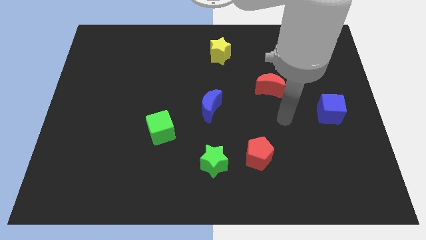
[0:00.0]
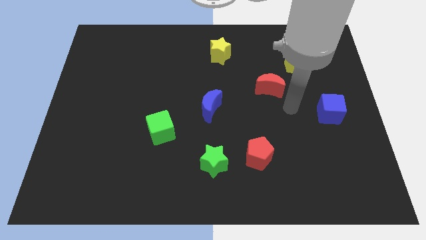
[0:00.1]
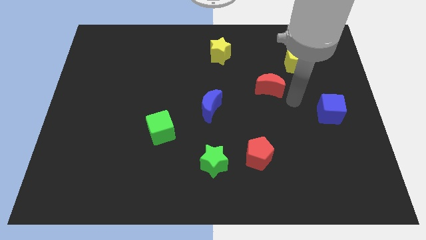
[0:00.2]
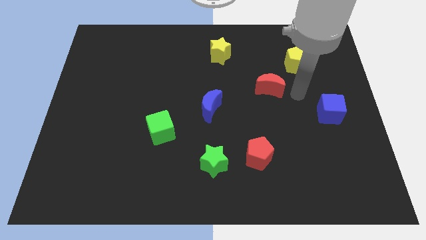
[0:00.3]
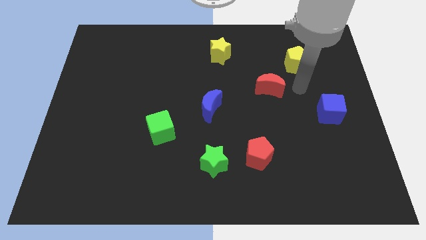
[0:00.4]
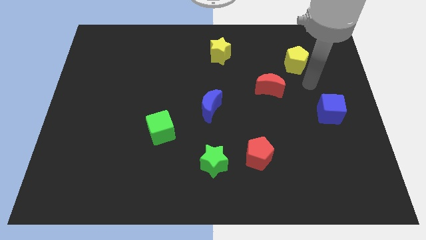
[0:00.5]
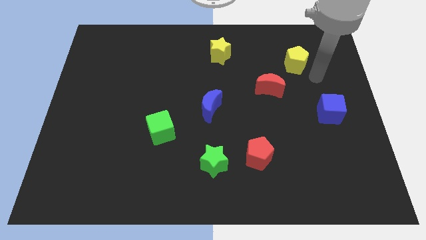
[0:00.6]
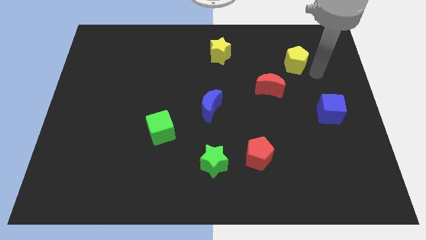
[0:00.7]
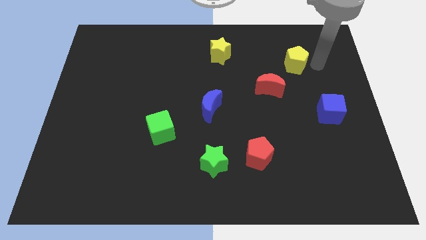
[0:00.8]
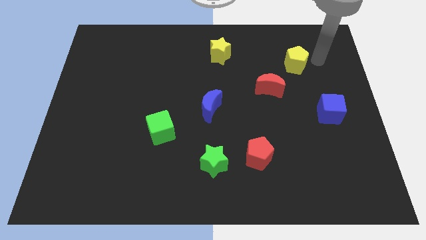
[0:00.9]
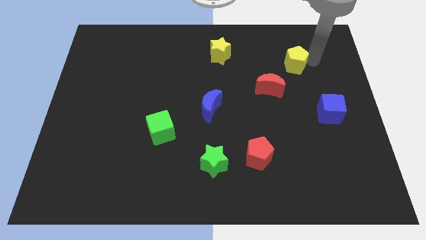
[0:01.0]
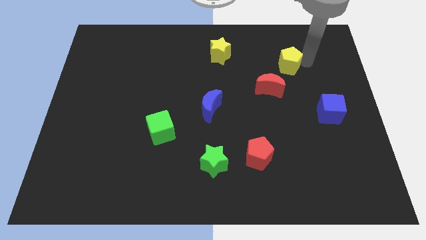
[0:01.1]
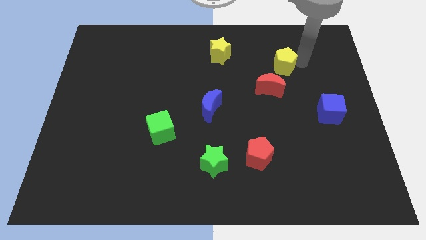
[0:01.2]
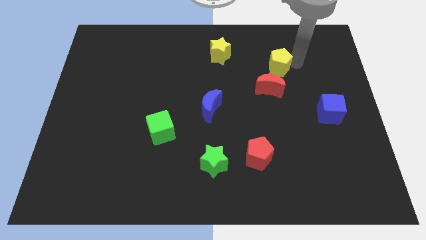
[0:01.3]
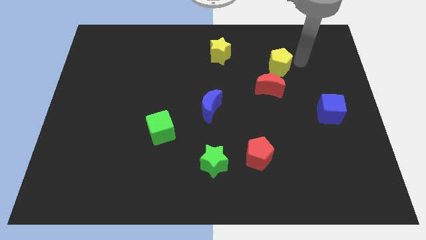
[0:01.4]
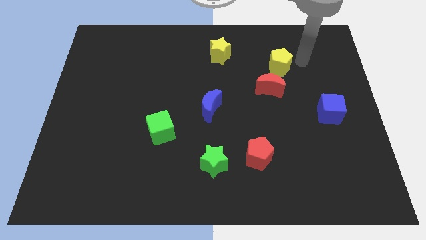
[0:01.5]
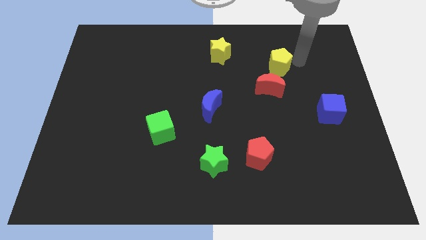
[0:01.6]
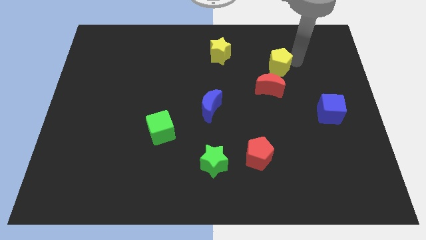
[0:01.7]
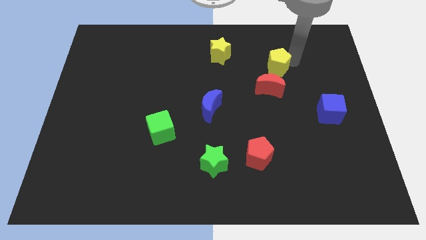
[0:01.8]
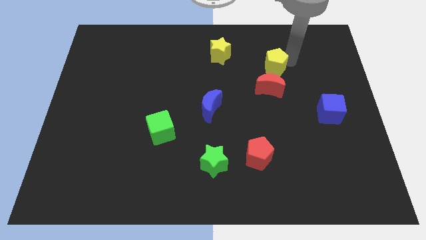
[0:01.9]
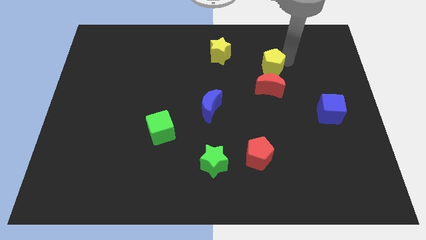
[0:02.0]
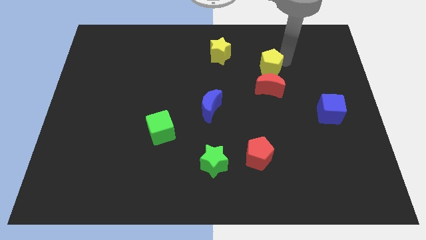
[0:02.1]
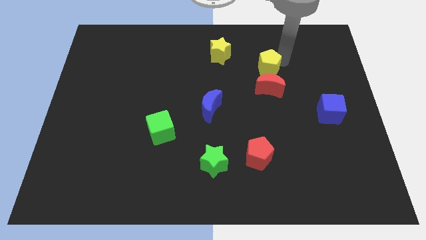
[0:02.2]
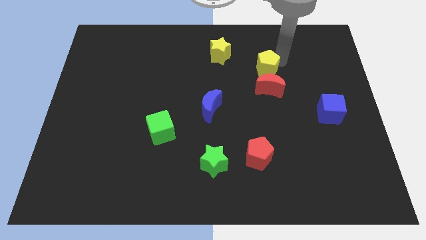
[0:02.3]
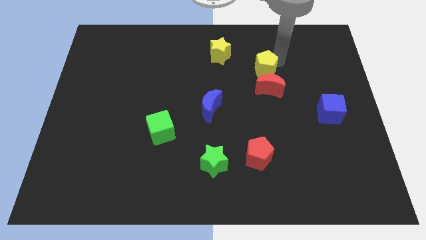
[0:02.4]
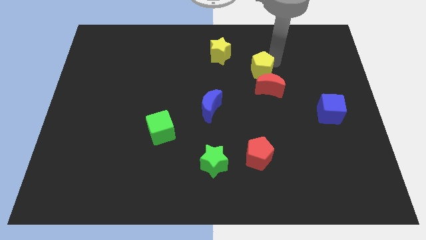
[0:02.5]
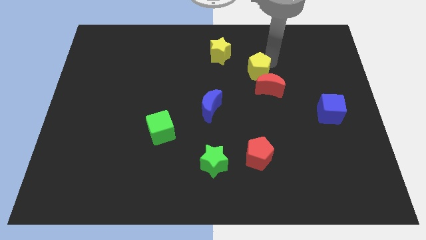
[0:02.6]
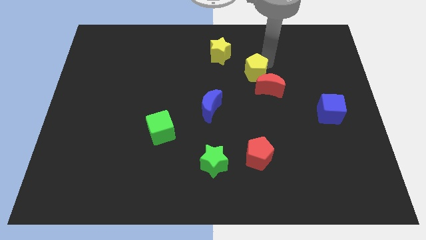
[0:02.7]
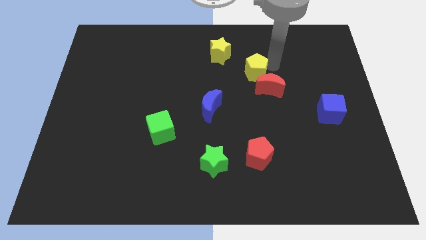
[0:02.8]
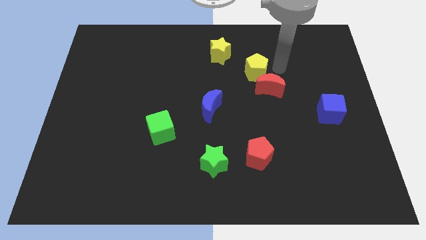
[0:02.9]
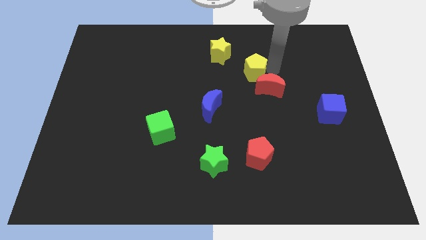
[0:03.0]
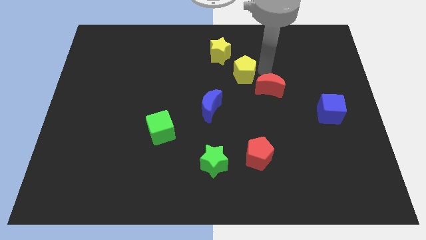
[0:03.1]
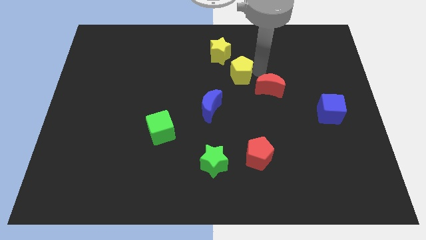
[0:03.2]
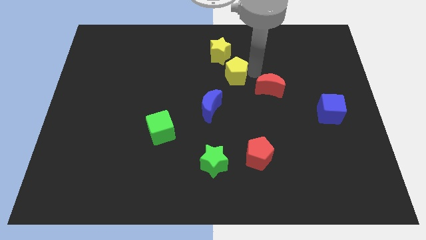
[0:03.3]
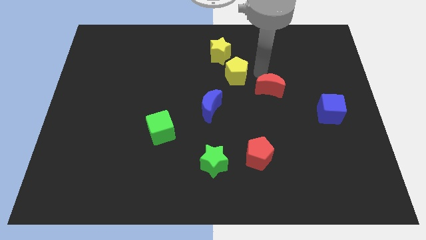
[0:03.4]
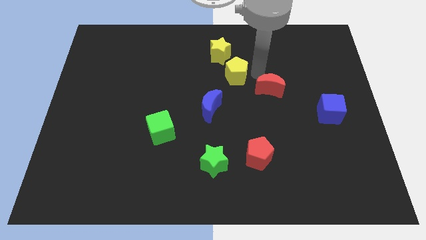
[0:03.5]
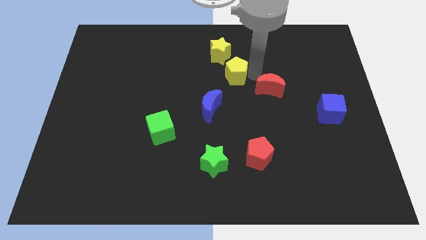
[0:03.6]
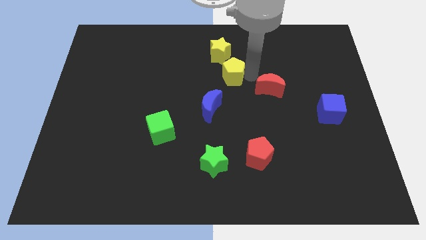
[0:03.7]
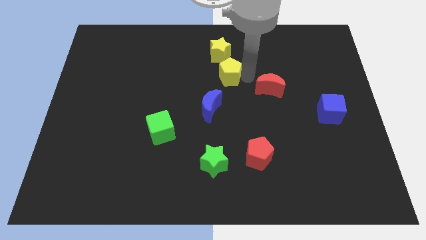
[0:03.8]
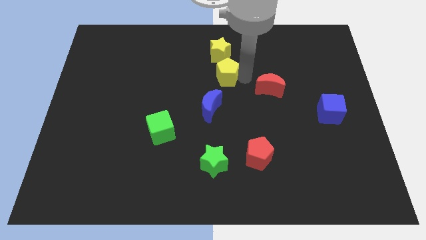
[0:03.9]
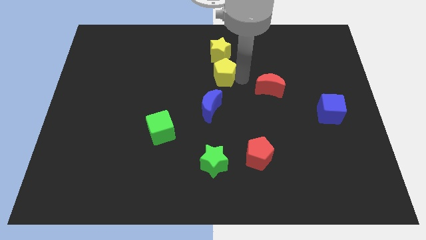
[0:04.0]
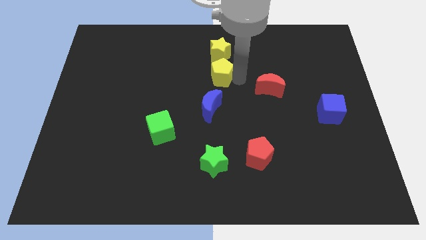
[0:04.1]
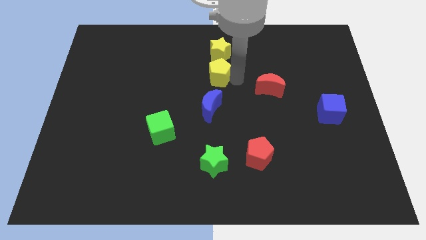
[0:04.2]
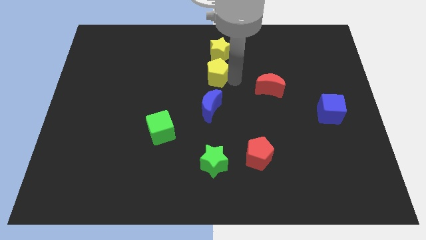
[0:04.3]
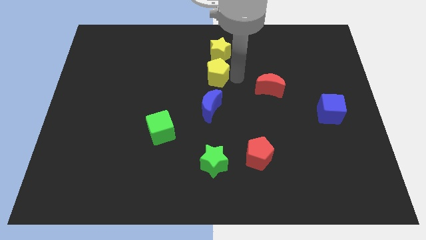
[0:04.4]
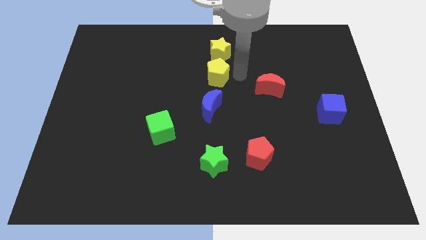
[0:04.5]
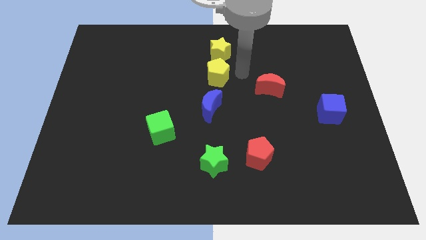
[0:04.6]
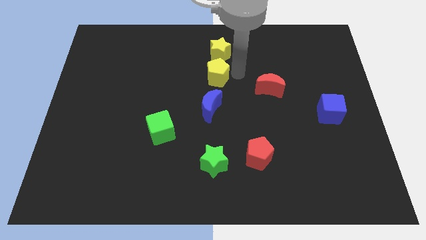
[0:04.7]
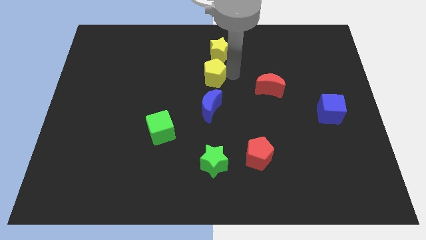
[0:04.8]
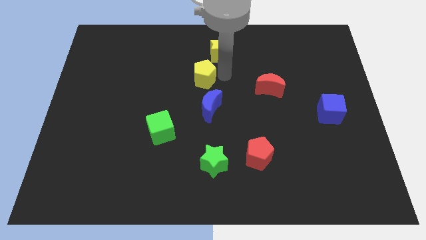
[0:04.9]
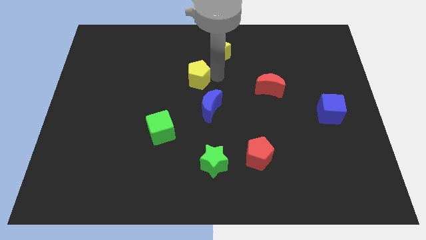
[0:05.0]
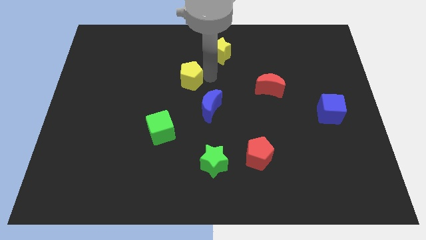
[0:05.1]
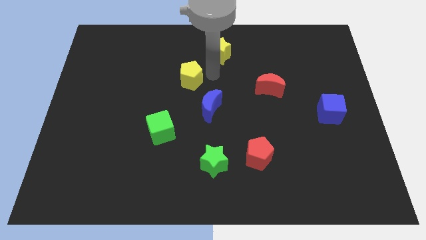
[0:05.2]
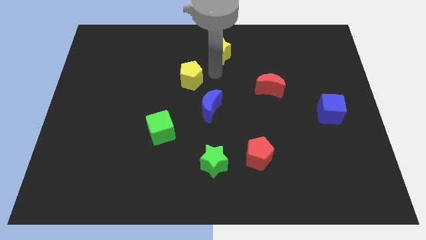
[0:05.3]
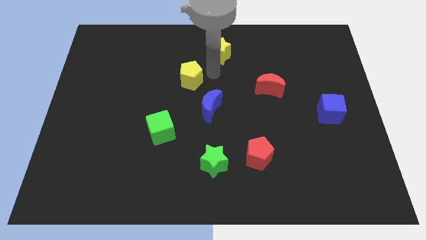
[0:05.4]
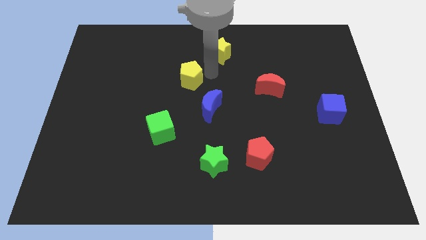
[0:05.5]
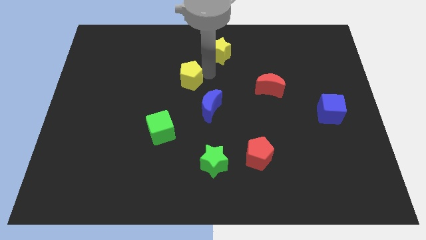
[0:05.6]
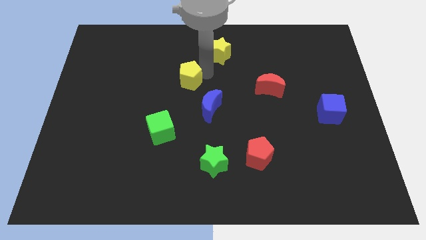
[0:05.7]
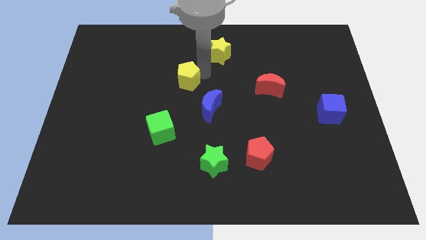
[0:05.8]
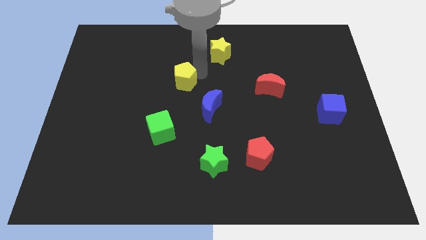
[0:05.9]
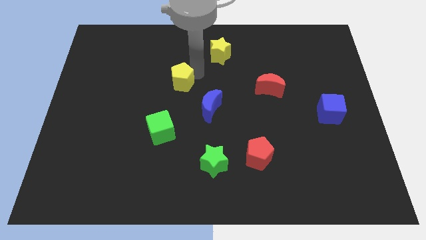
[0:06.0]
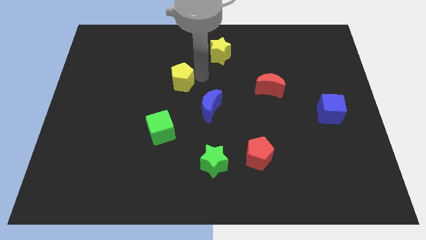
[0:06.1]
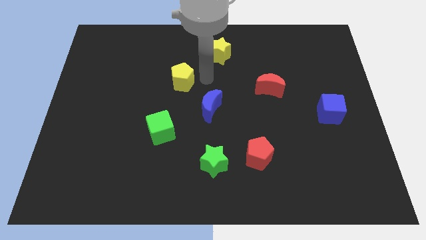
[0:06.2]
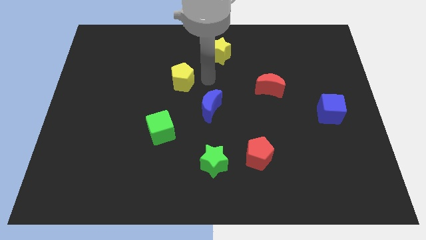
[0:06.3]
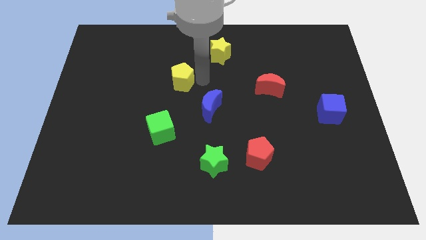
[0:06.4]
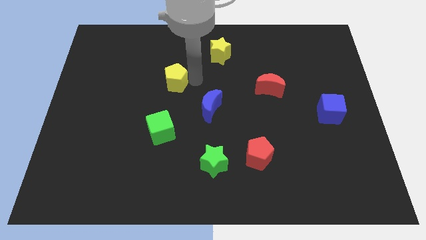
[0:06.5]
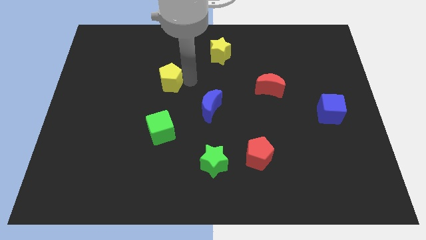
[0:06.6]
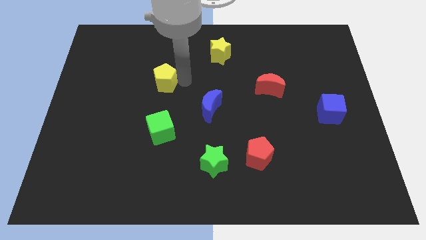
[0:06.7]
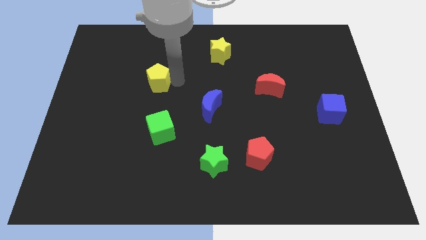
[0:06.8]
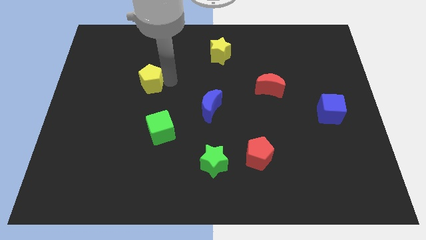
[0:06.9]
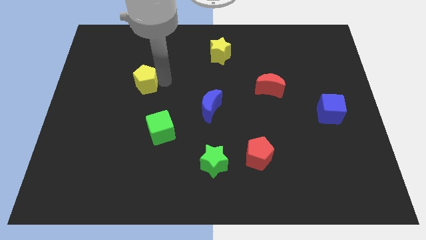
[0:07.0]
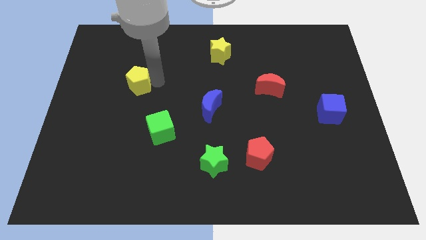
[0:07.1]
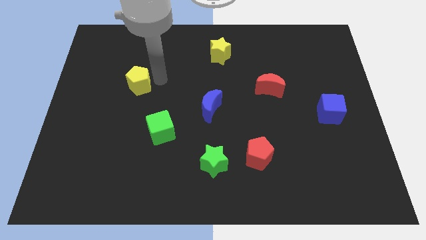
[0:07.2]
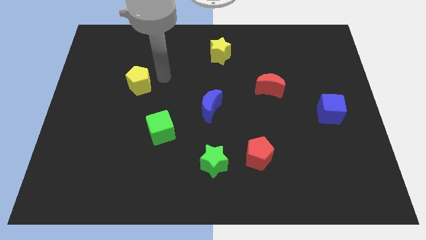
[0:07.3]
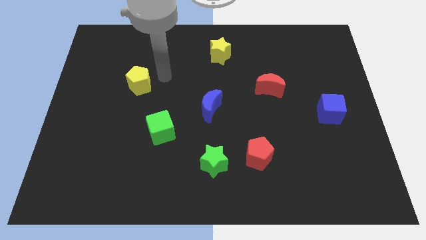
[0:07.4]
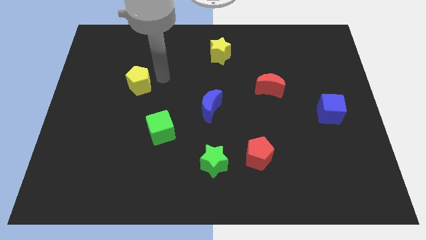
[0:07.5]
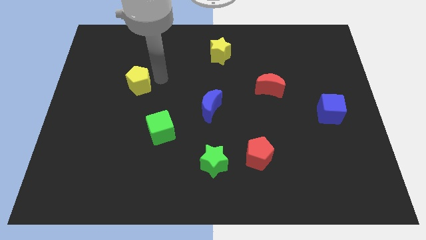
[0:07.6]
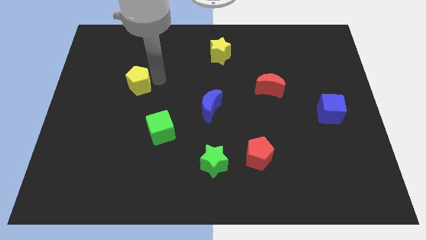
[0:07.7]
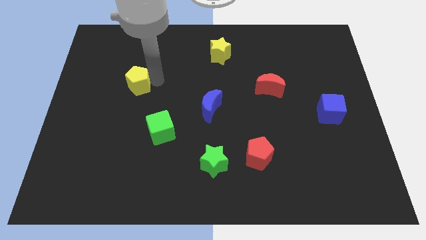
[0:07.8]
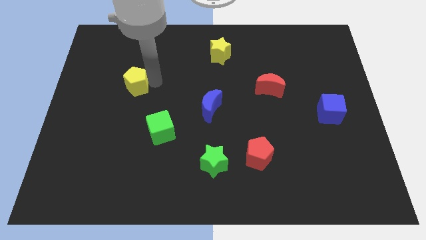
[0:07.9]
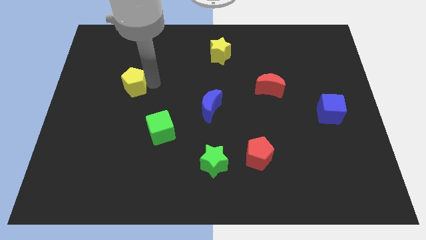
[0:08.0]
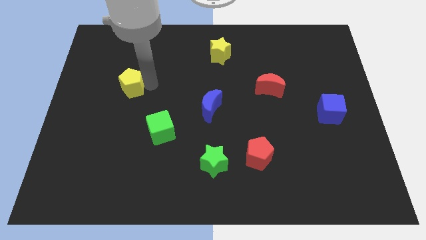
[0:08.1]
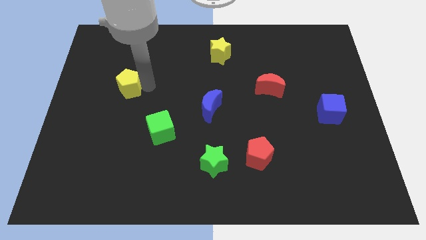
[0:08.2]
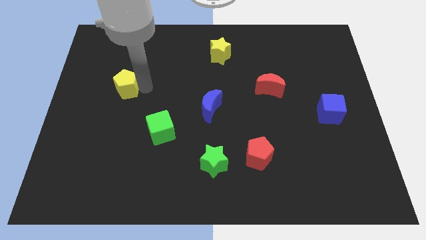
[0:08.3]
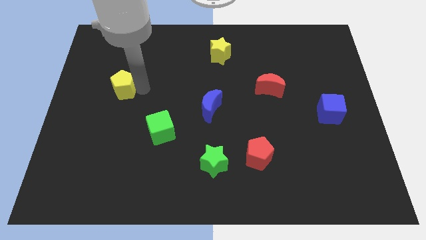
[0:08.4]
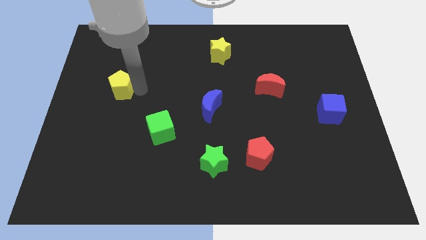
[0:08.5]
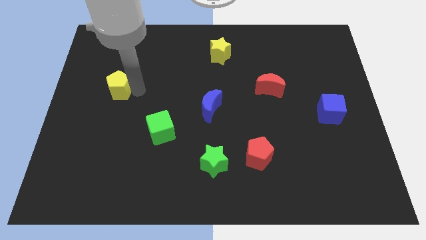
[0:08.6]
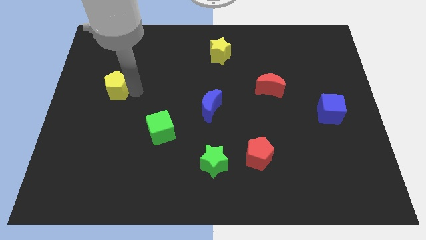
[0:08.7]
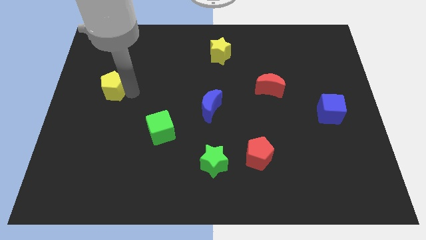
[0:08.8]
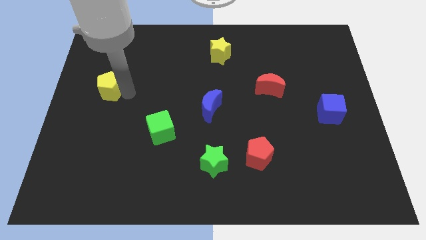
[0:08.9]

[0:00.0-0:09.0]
put the yellow pentagon to the left side of the board
